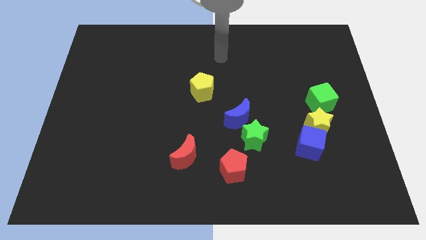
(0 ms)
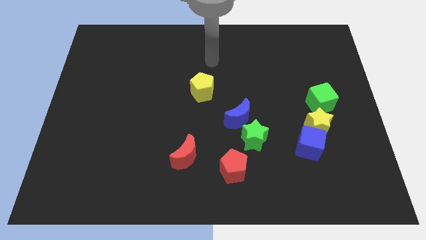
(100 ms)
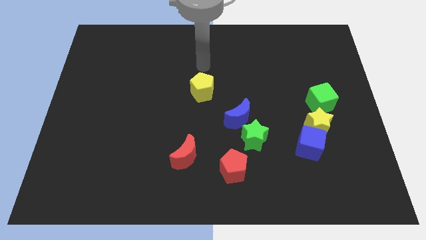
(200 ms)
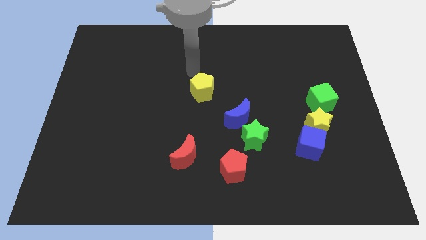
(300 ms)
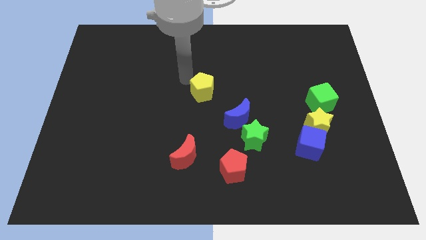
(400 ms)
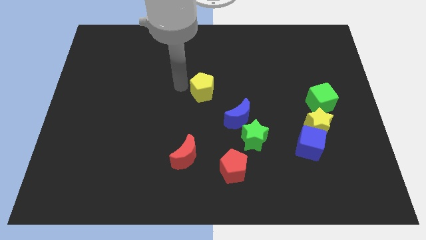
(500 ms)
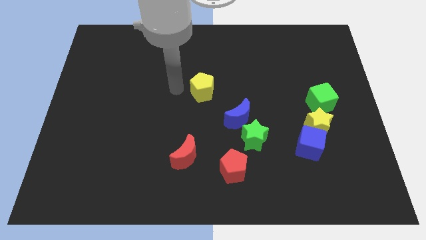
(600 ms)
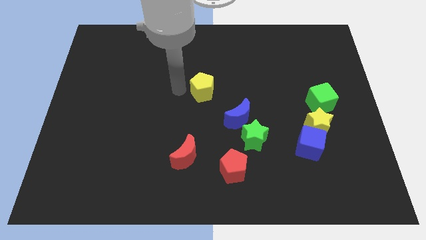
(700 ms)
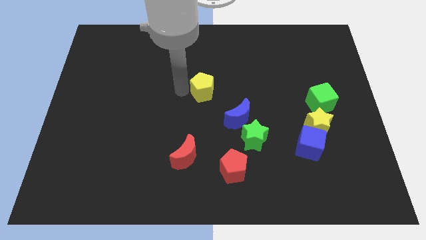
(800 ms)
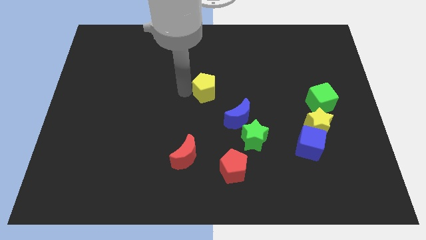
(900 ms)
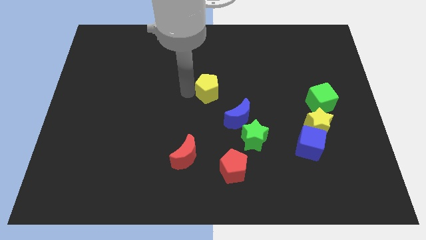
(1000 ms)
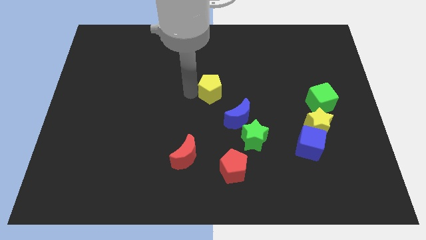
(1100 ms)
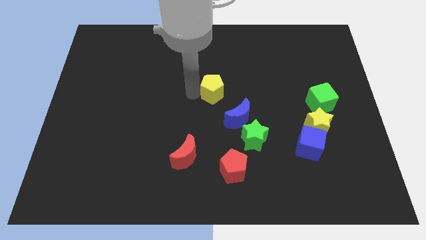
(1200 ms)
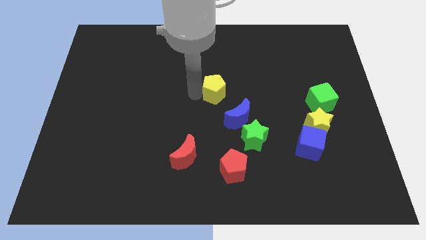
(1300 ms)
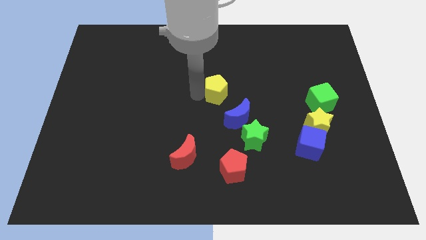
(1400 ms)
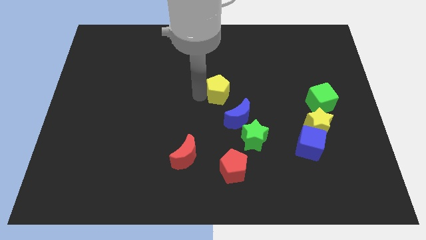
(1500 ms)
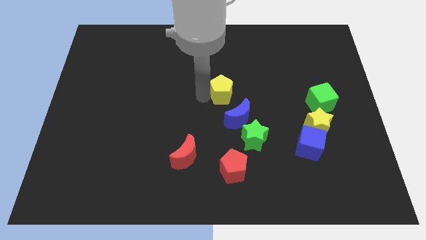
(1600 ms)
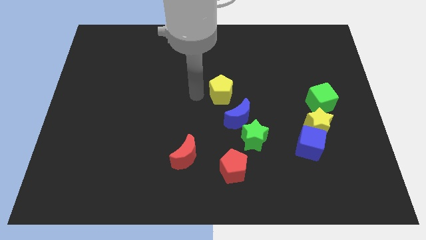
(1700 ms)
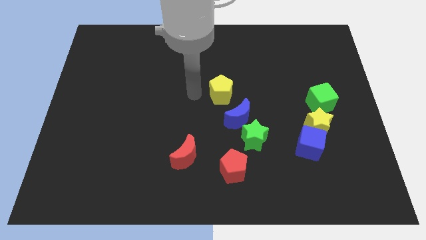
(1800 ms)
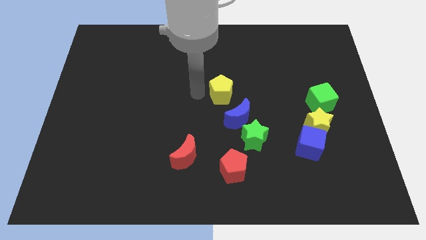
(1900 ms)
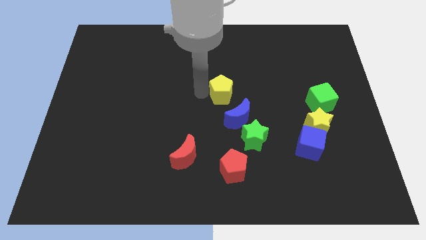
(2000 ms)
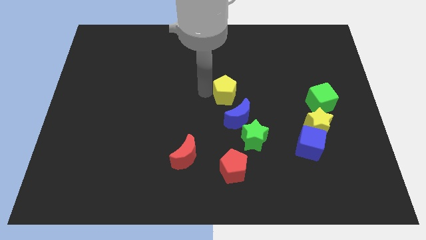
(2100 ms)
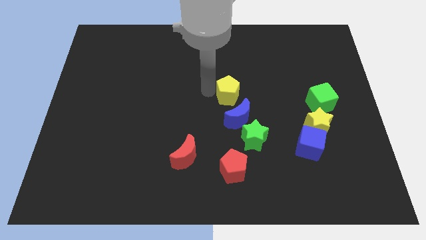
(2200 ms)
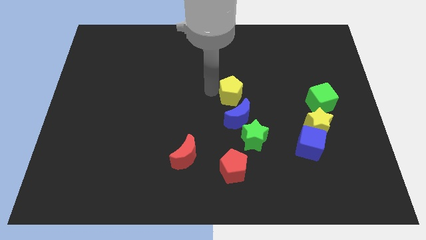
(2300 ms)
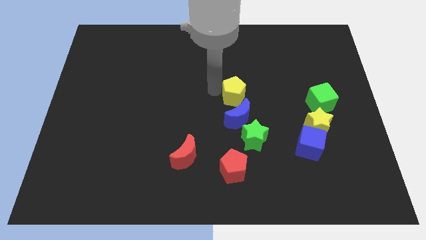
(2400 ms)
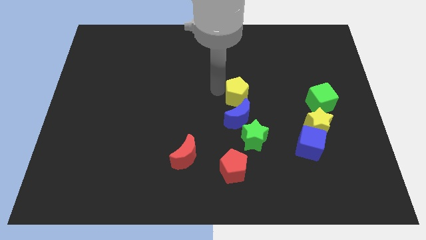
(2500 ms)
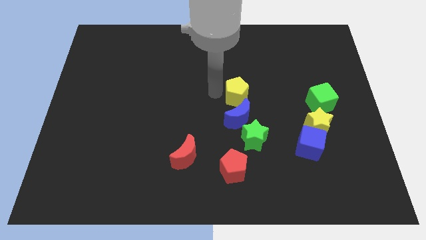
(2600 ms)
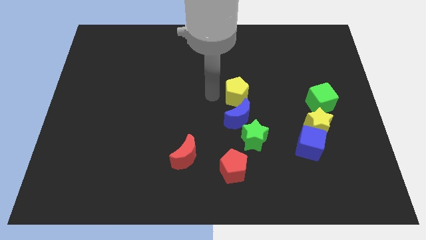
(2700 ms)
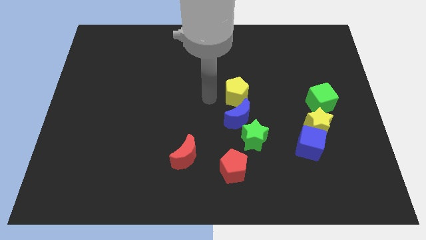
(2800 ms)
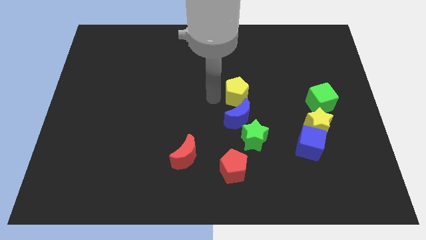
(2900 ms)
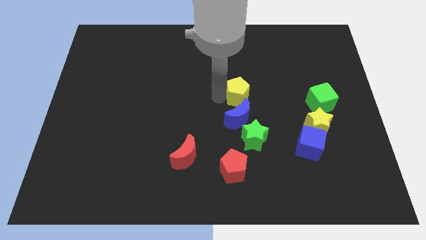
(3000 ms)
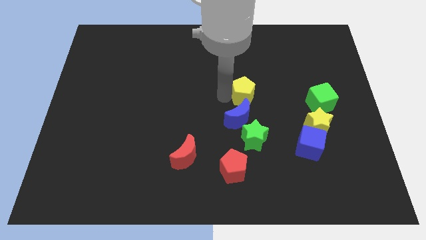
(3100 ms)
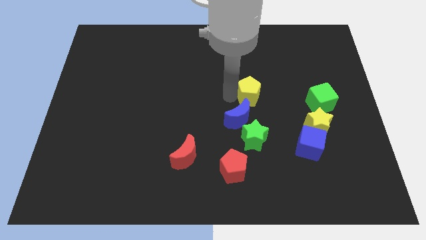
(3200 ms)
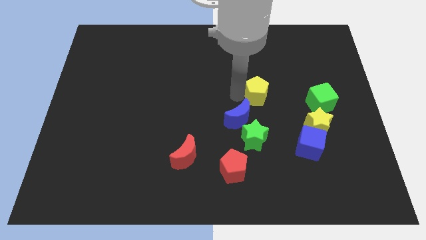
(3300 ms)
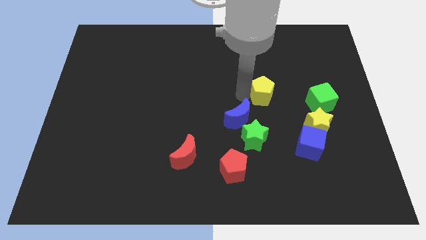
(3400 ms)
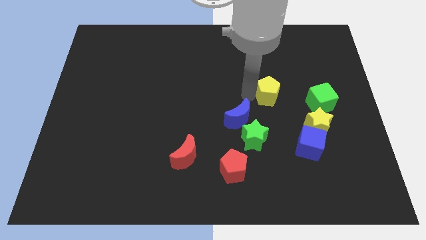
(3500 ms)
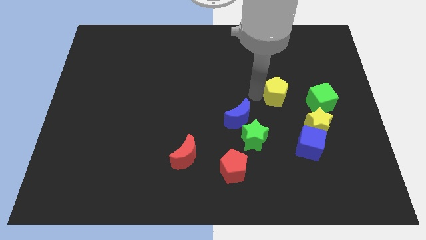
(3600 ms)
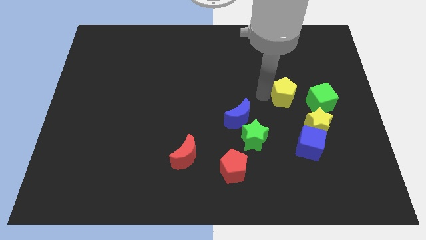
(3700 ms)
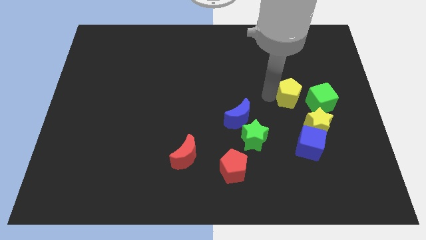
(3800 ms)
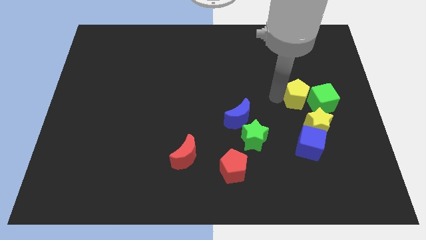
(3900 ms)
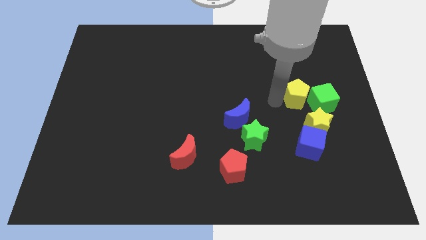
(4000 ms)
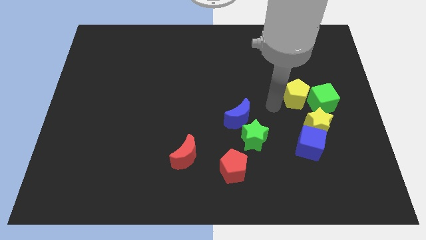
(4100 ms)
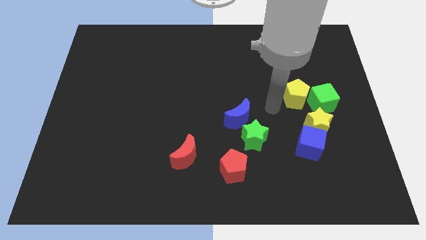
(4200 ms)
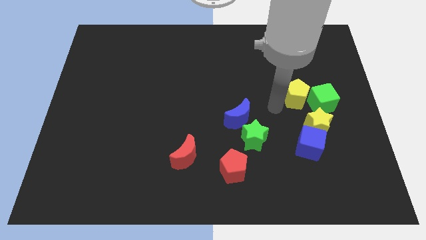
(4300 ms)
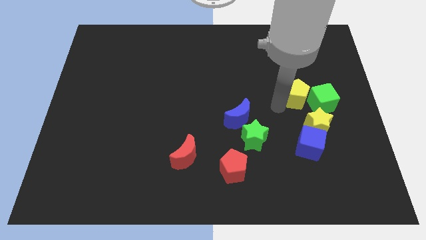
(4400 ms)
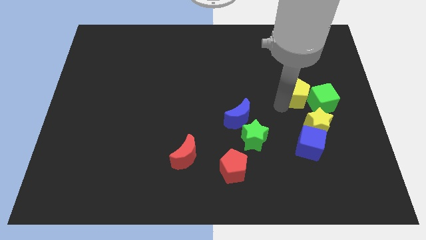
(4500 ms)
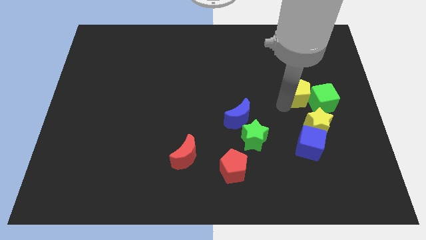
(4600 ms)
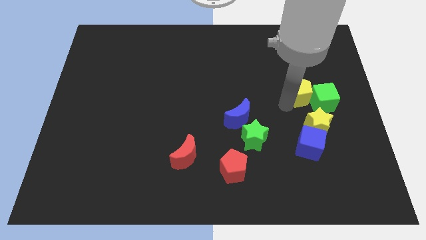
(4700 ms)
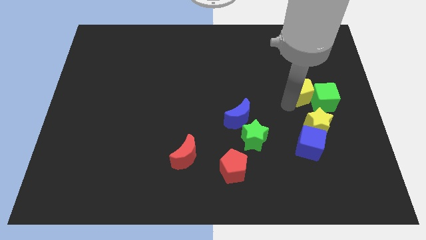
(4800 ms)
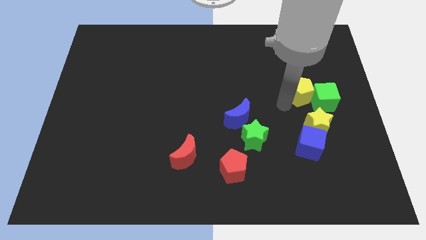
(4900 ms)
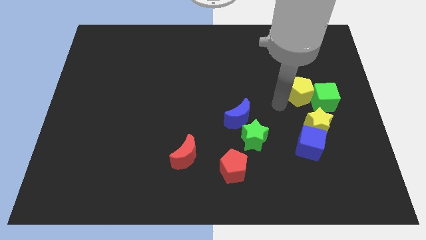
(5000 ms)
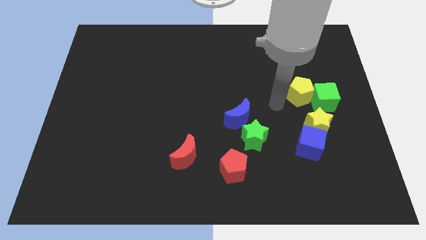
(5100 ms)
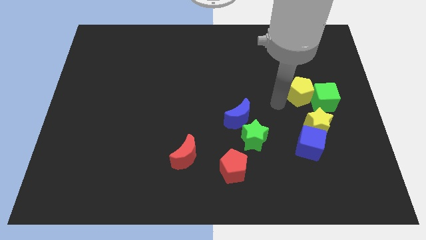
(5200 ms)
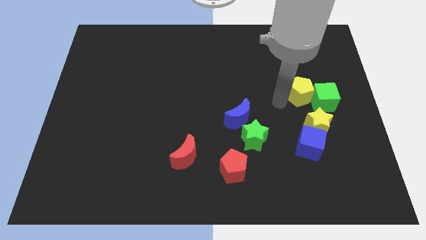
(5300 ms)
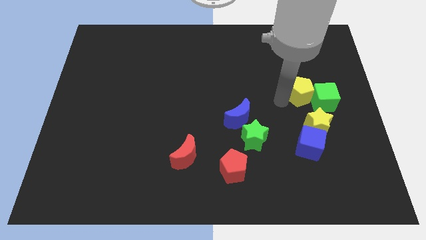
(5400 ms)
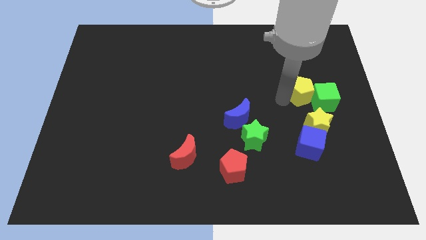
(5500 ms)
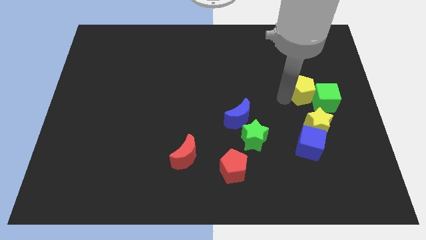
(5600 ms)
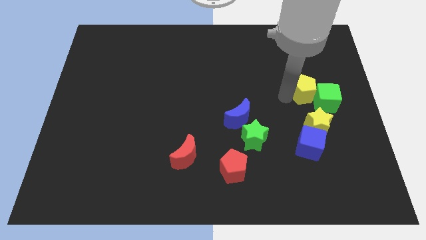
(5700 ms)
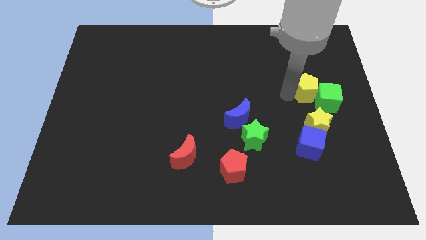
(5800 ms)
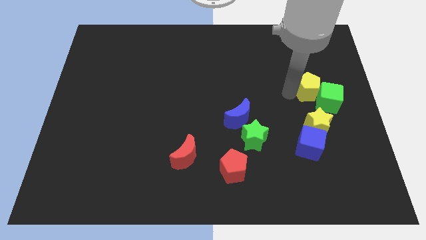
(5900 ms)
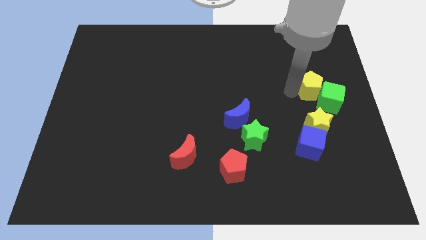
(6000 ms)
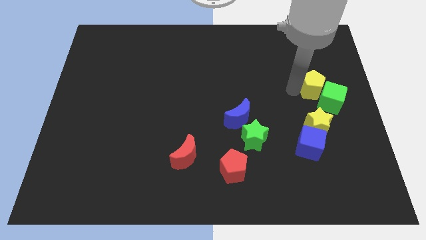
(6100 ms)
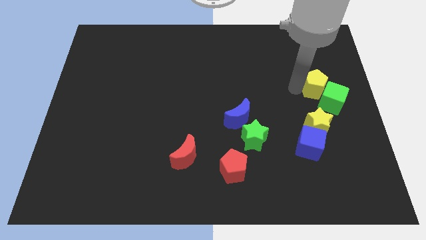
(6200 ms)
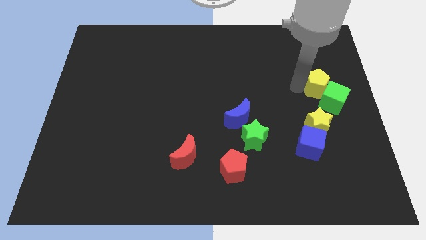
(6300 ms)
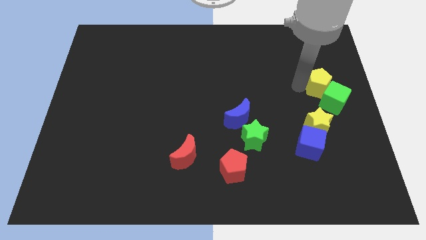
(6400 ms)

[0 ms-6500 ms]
push the yellow pentagon to the right side of the board
